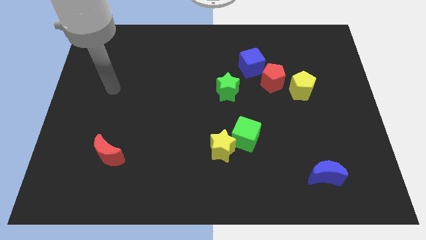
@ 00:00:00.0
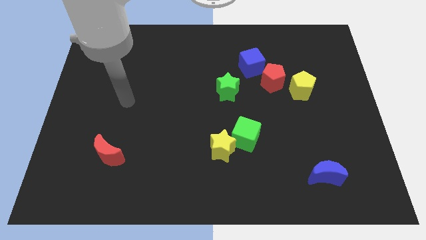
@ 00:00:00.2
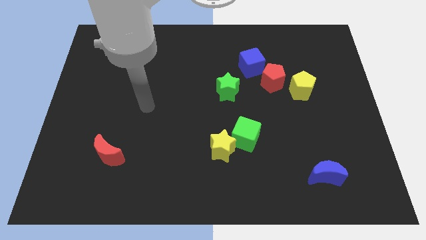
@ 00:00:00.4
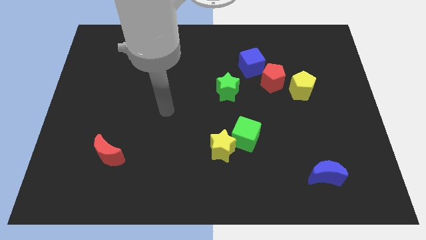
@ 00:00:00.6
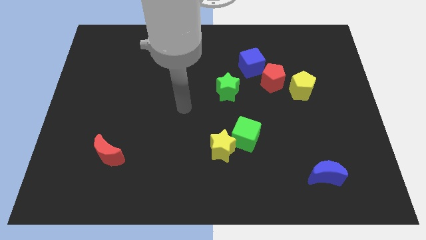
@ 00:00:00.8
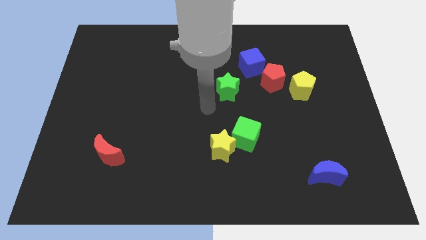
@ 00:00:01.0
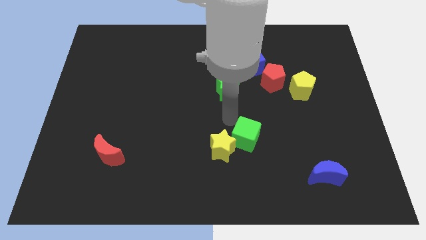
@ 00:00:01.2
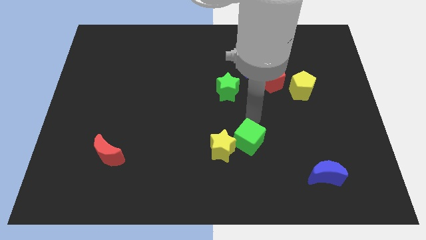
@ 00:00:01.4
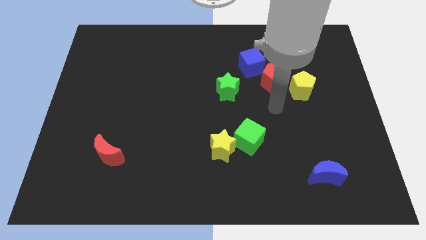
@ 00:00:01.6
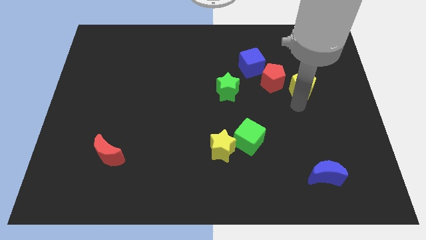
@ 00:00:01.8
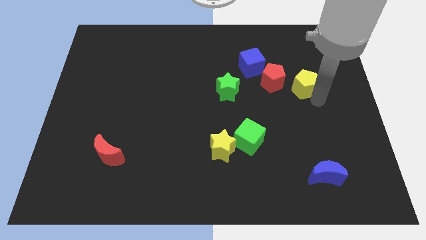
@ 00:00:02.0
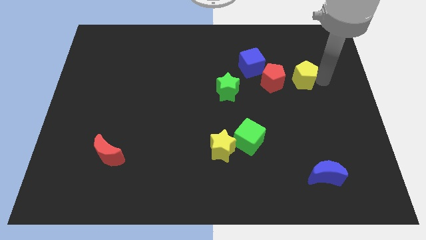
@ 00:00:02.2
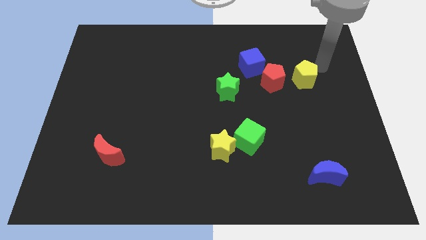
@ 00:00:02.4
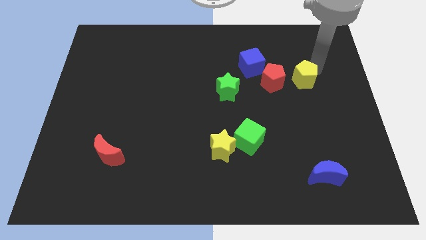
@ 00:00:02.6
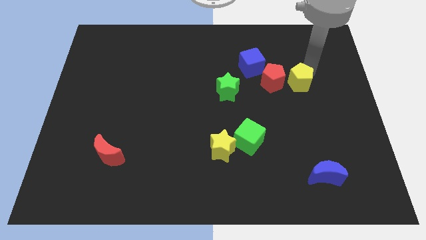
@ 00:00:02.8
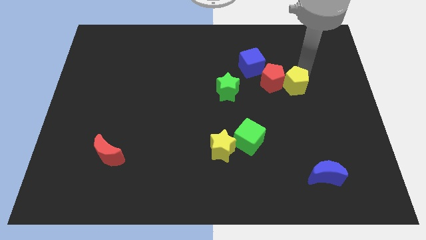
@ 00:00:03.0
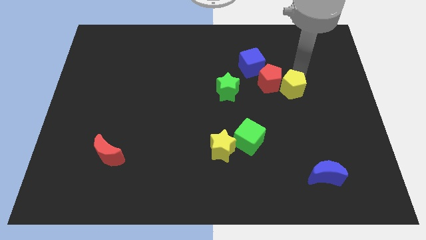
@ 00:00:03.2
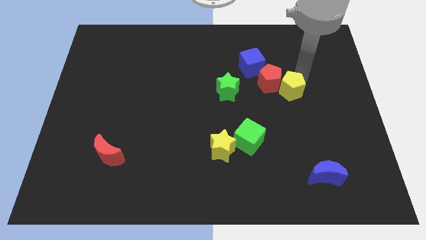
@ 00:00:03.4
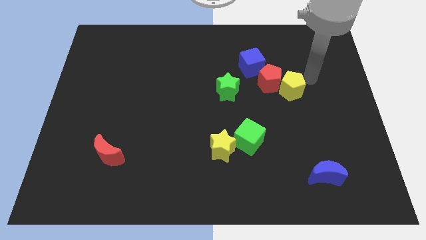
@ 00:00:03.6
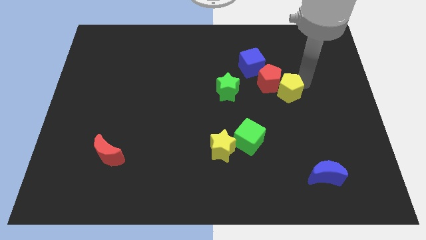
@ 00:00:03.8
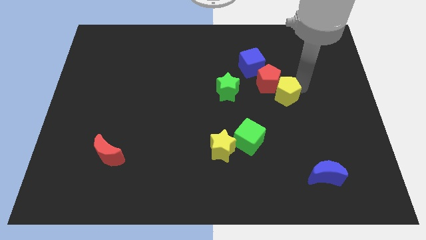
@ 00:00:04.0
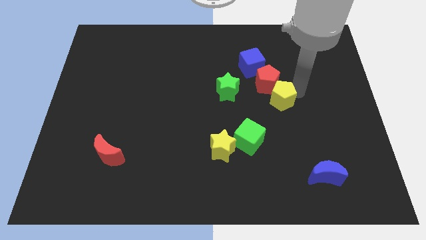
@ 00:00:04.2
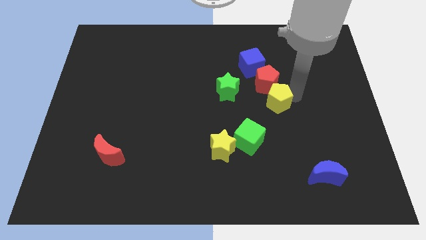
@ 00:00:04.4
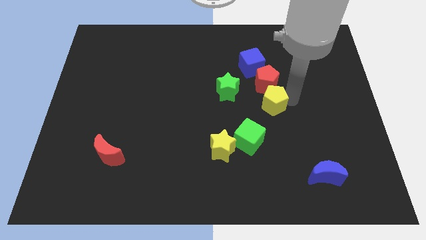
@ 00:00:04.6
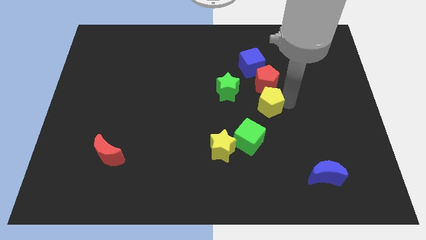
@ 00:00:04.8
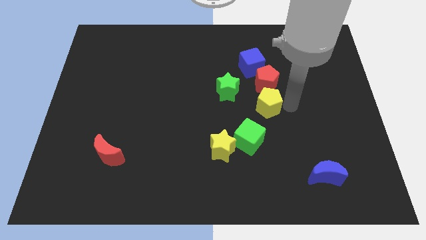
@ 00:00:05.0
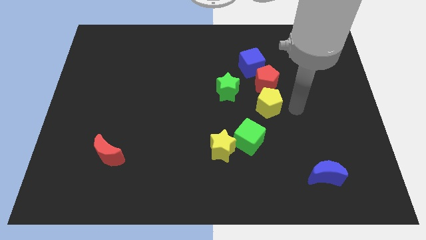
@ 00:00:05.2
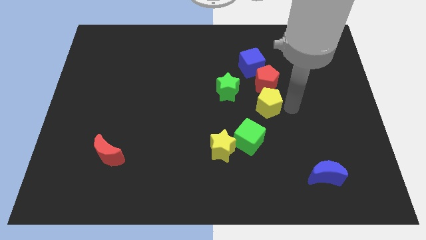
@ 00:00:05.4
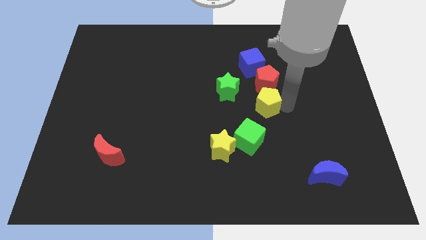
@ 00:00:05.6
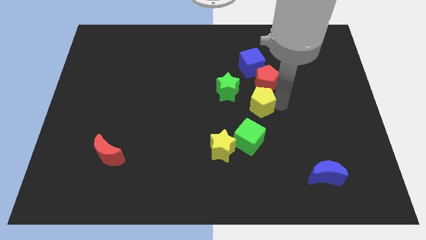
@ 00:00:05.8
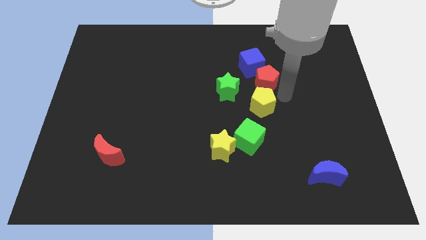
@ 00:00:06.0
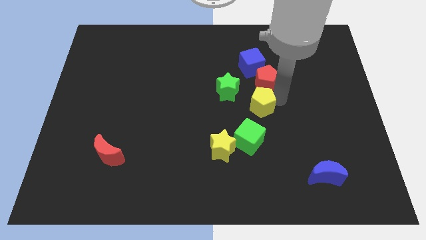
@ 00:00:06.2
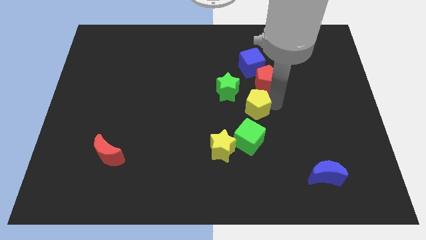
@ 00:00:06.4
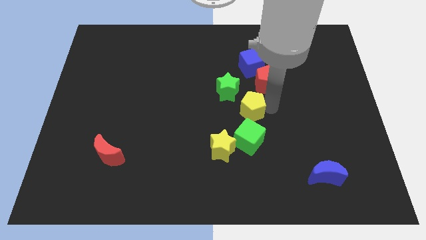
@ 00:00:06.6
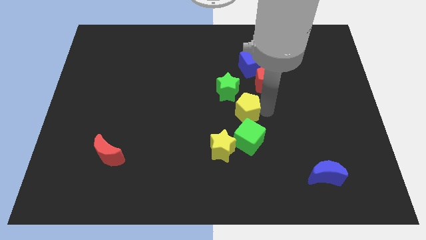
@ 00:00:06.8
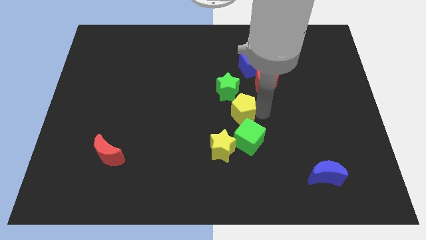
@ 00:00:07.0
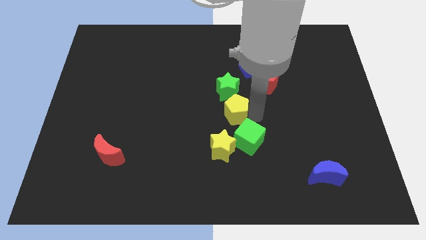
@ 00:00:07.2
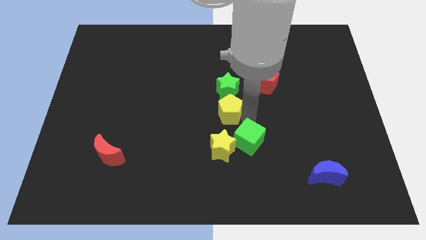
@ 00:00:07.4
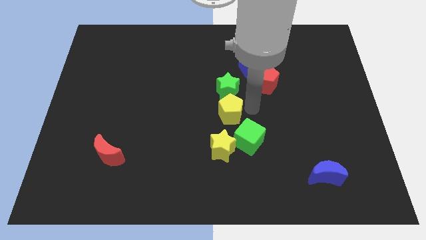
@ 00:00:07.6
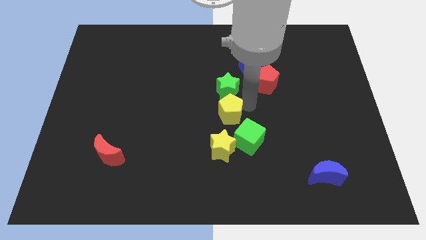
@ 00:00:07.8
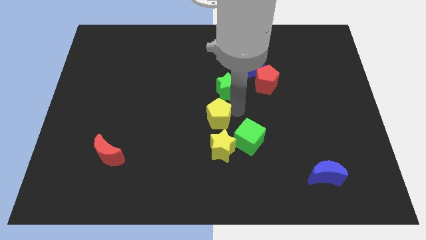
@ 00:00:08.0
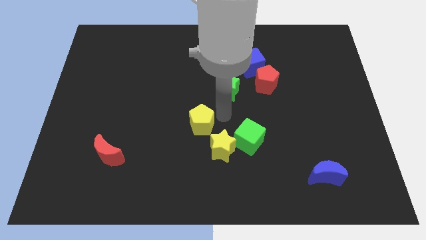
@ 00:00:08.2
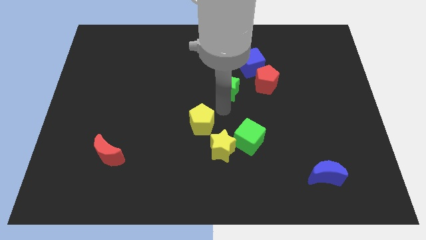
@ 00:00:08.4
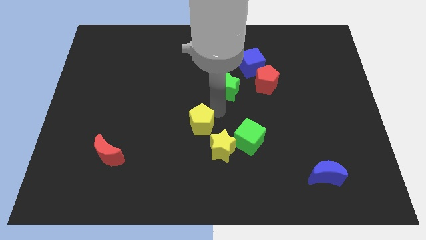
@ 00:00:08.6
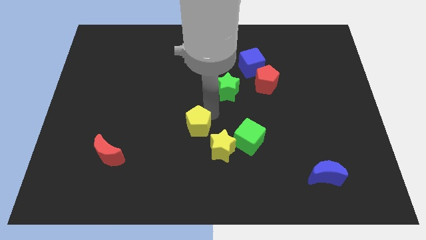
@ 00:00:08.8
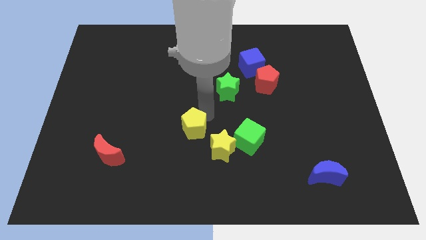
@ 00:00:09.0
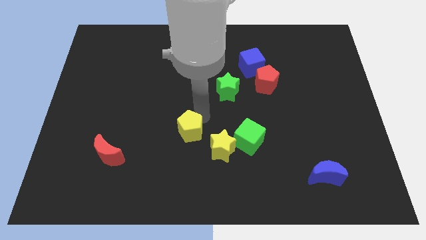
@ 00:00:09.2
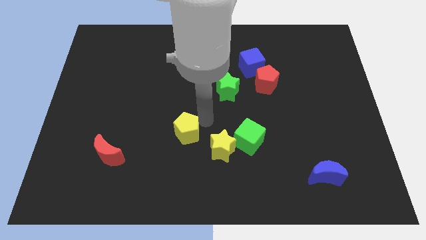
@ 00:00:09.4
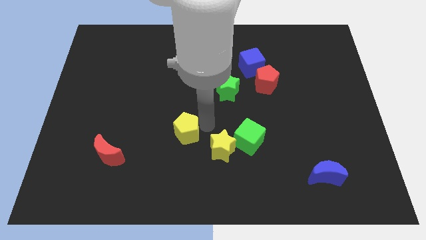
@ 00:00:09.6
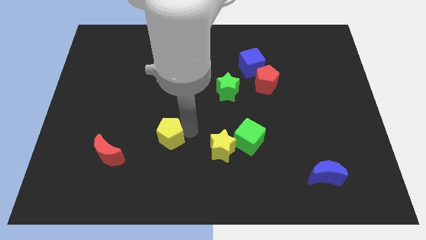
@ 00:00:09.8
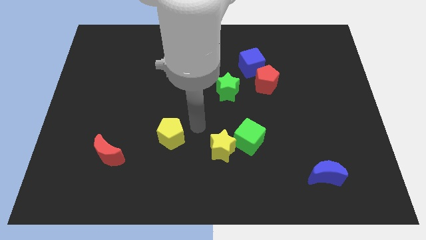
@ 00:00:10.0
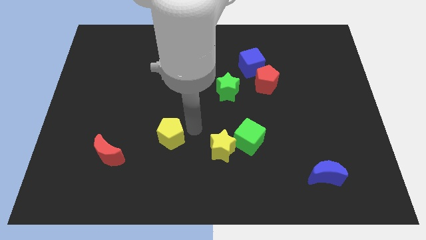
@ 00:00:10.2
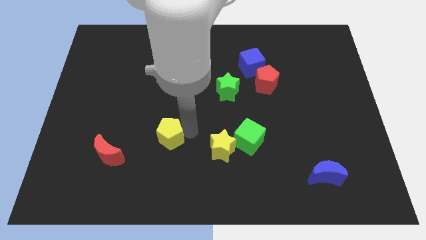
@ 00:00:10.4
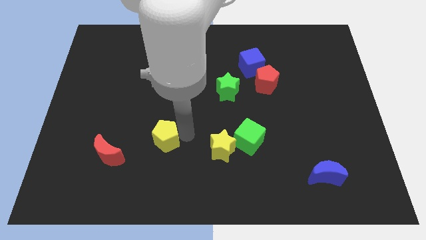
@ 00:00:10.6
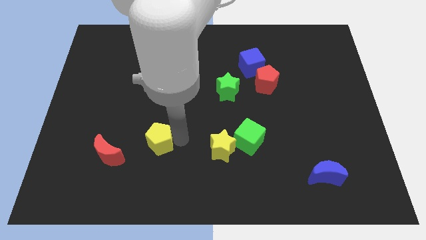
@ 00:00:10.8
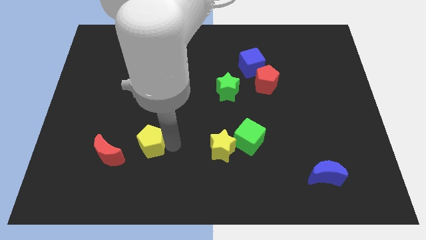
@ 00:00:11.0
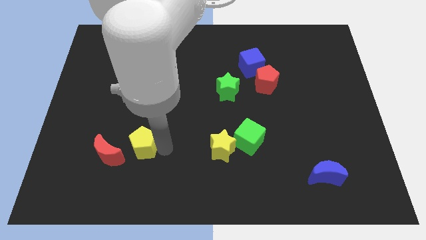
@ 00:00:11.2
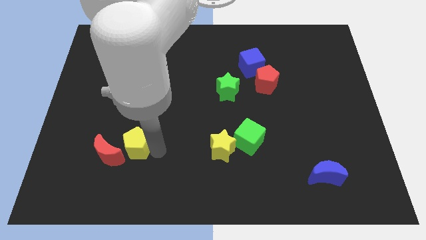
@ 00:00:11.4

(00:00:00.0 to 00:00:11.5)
put the yellow pentagon next to the red moon

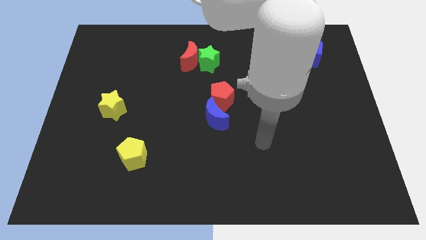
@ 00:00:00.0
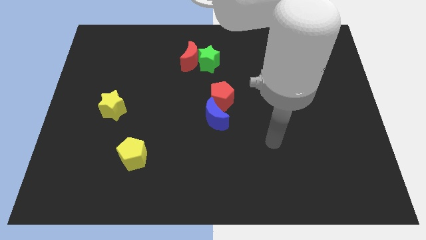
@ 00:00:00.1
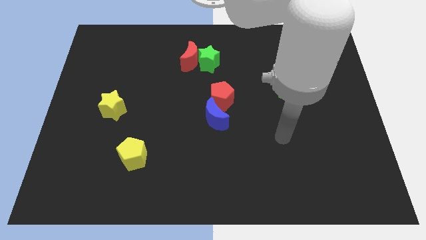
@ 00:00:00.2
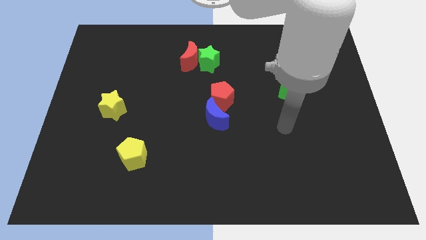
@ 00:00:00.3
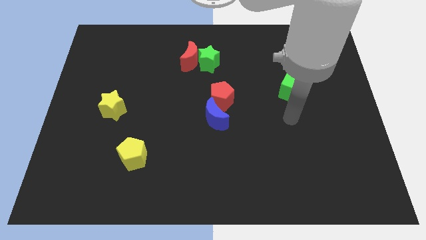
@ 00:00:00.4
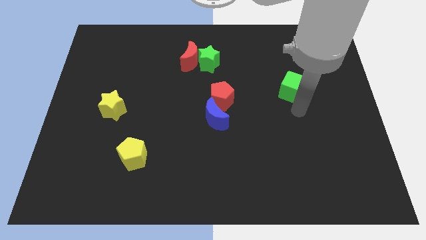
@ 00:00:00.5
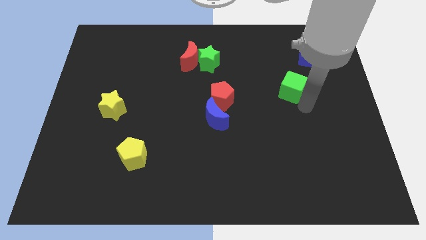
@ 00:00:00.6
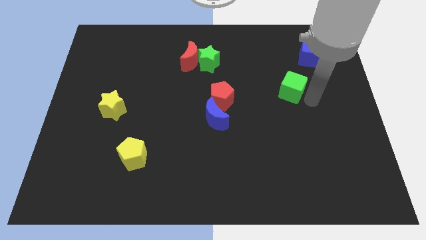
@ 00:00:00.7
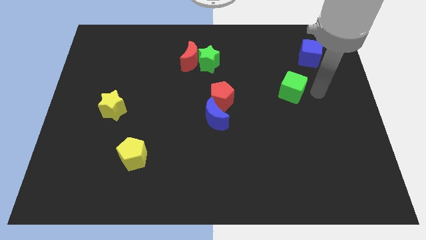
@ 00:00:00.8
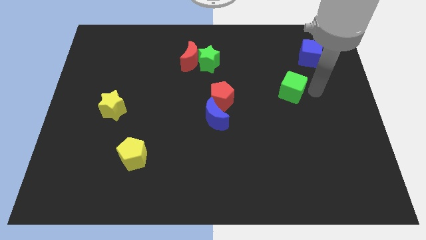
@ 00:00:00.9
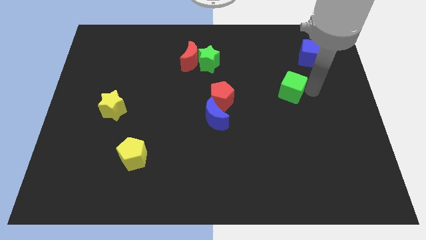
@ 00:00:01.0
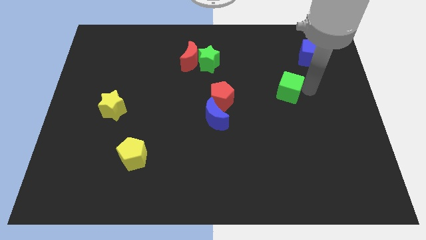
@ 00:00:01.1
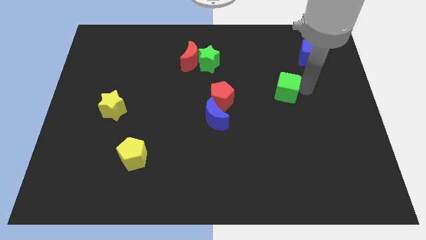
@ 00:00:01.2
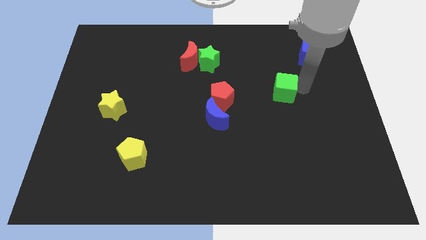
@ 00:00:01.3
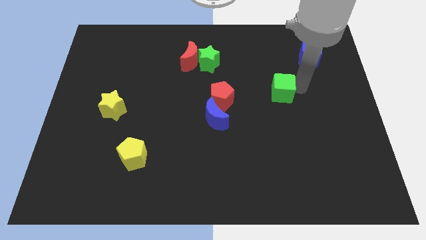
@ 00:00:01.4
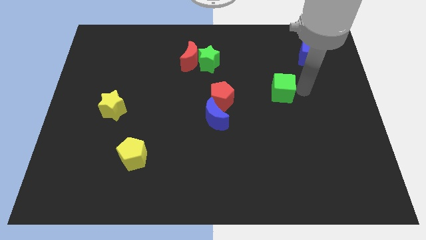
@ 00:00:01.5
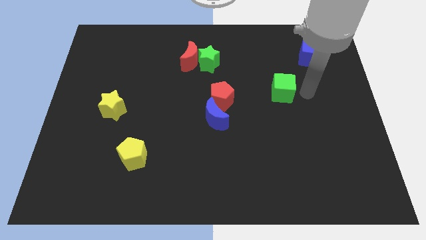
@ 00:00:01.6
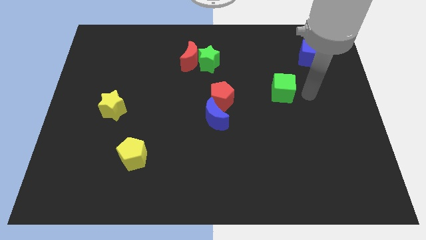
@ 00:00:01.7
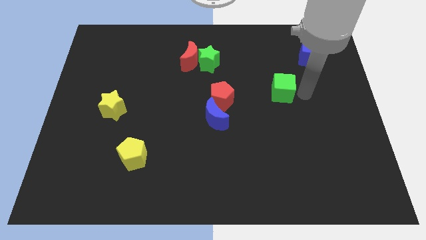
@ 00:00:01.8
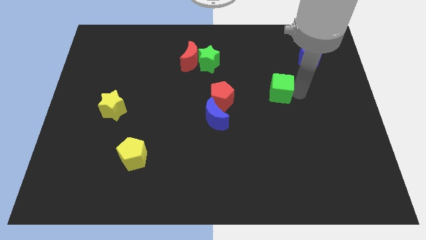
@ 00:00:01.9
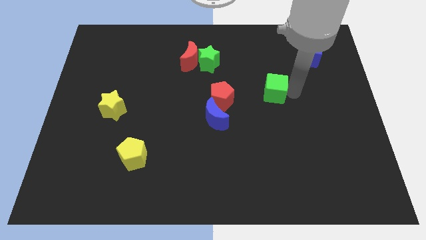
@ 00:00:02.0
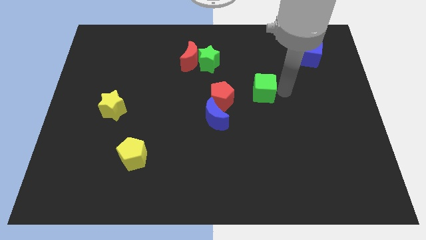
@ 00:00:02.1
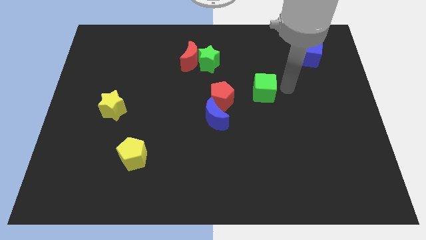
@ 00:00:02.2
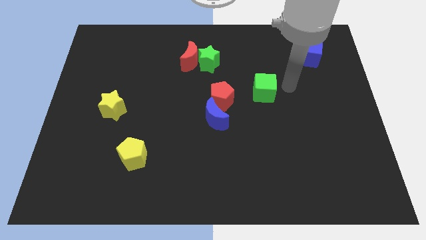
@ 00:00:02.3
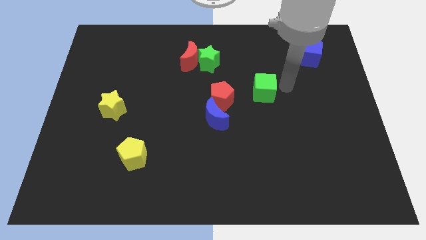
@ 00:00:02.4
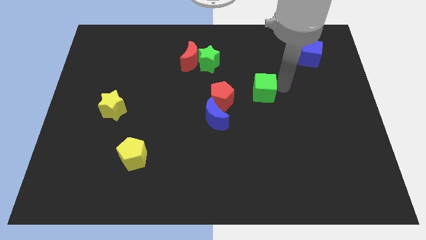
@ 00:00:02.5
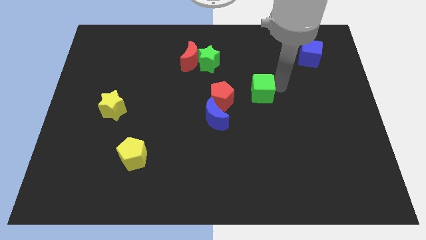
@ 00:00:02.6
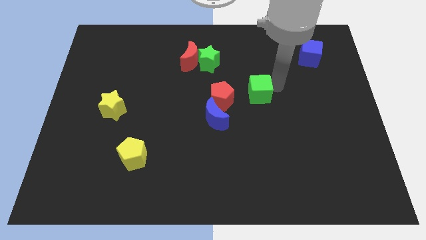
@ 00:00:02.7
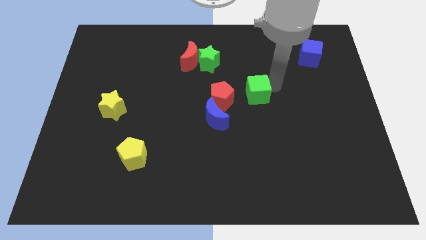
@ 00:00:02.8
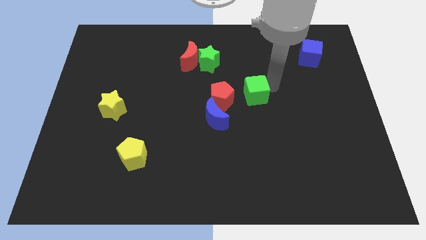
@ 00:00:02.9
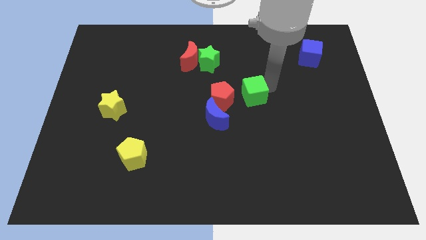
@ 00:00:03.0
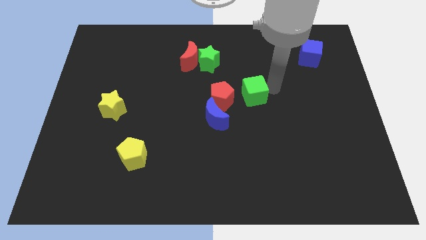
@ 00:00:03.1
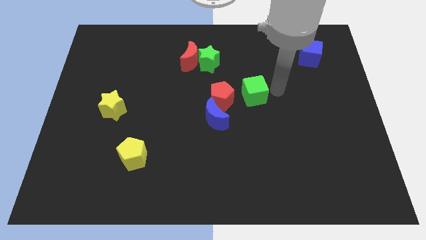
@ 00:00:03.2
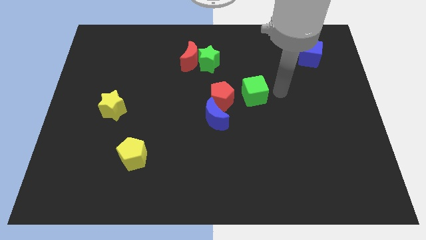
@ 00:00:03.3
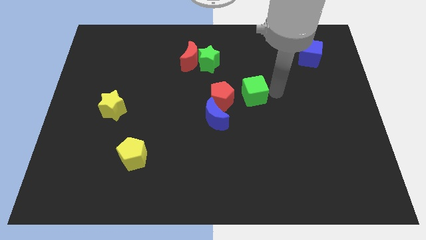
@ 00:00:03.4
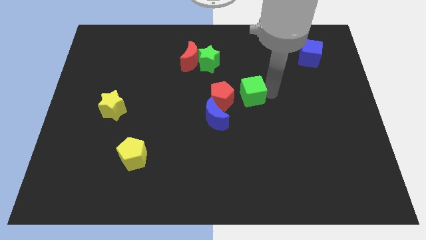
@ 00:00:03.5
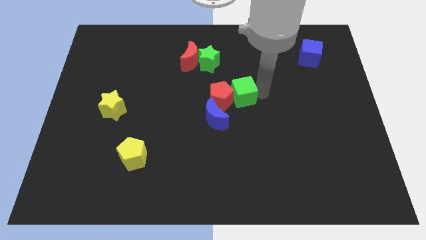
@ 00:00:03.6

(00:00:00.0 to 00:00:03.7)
push the green cube close to the red pentagon
